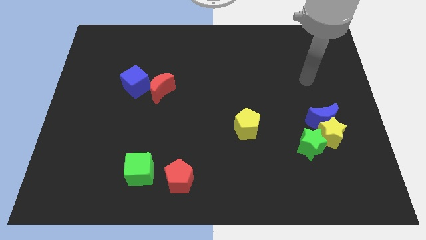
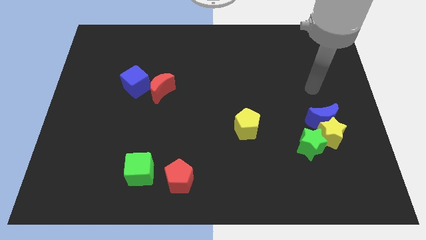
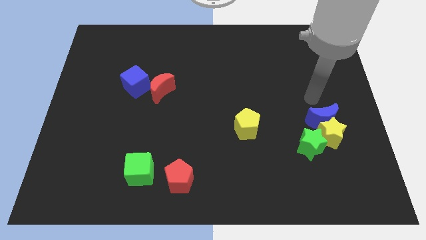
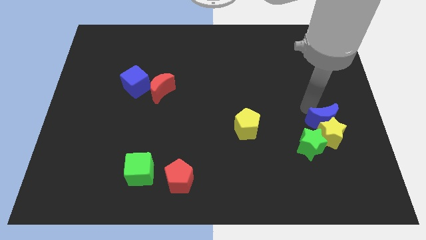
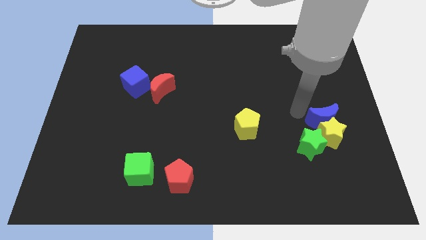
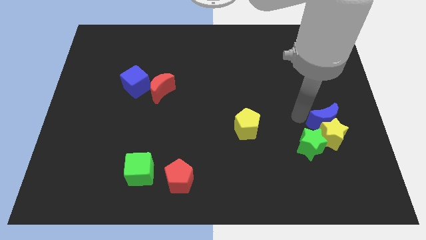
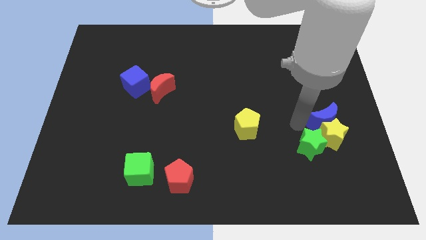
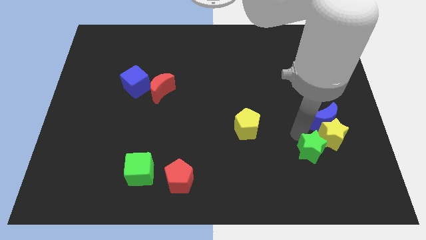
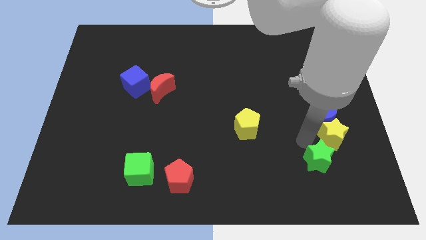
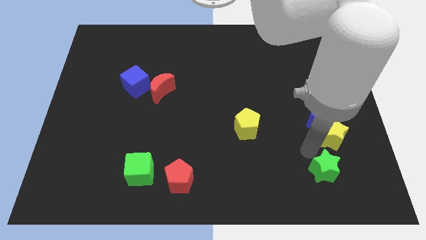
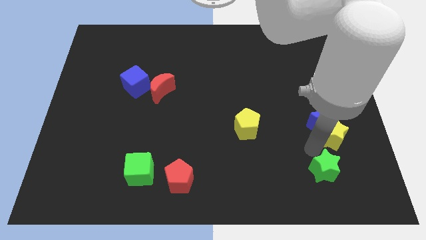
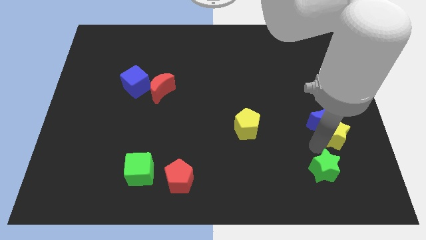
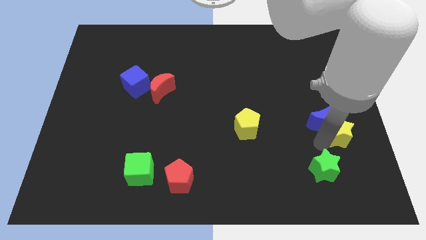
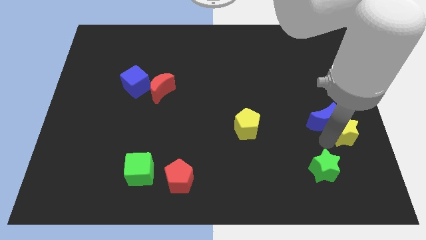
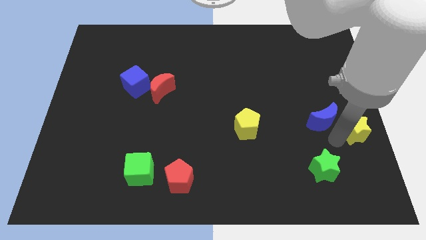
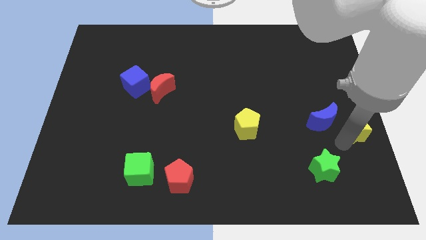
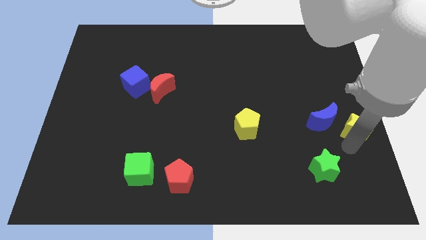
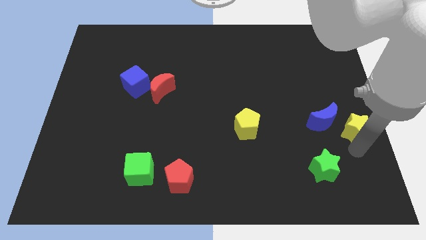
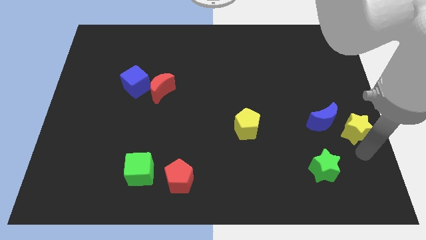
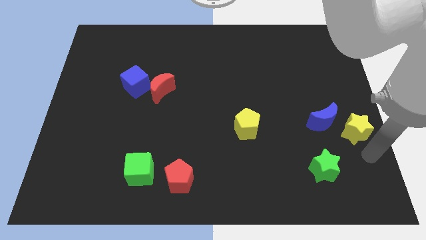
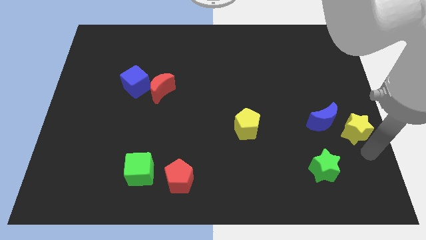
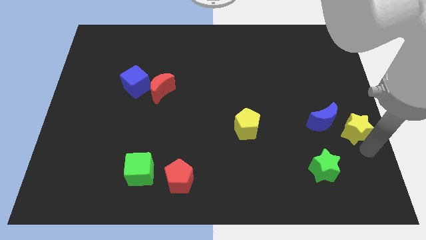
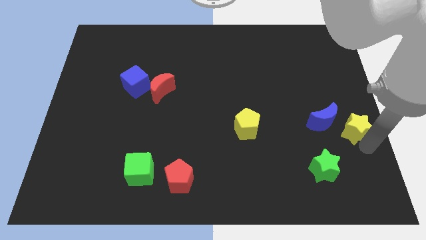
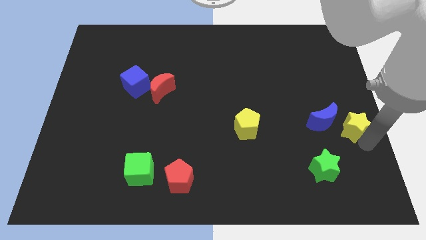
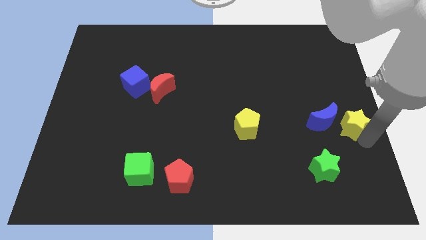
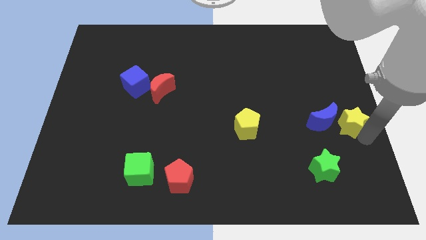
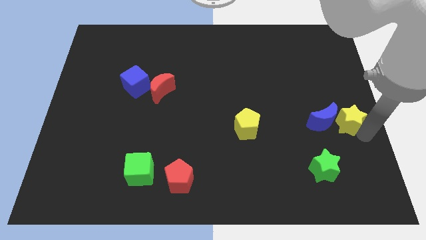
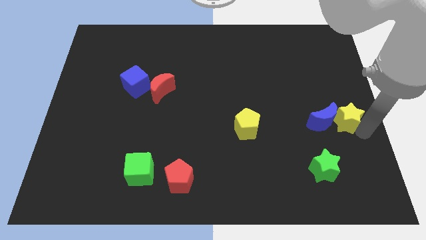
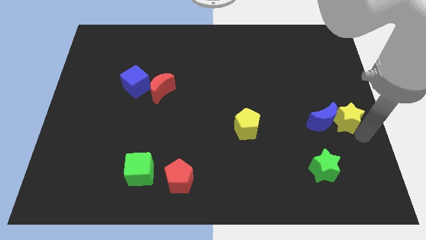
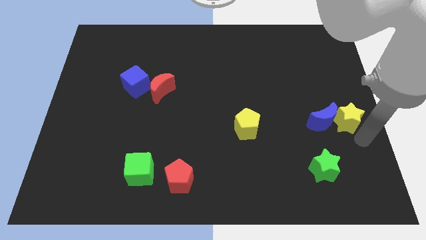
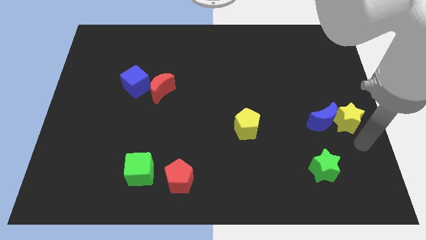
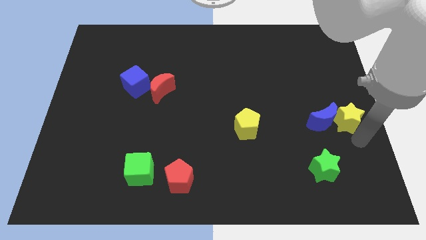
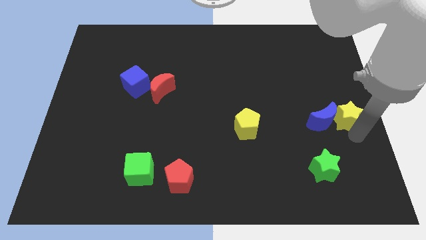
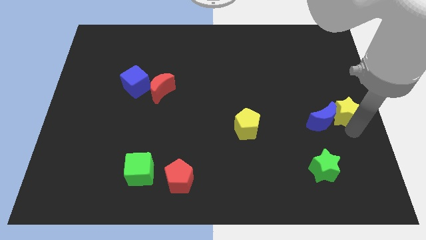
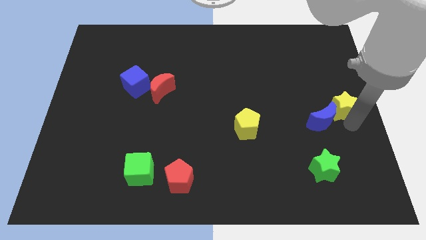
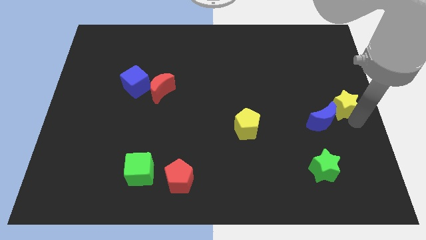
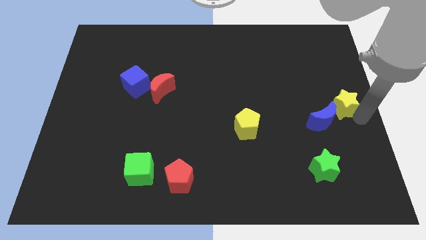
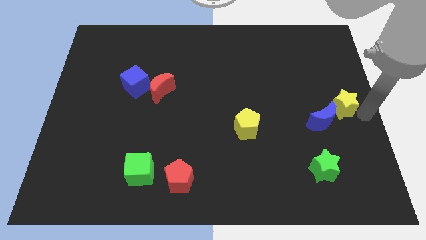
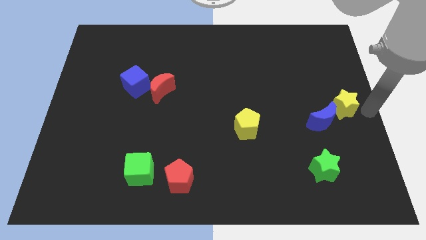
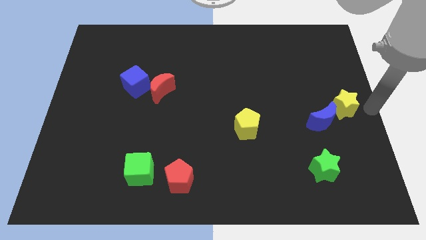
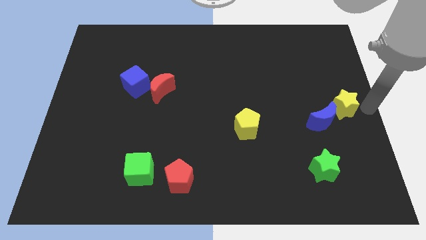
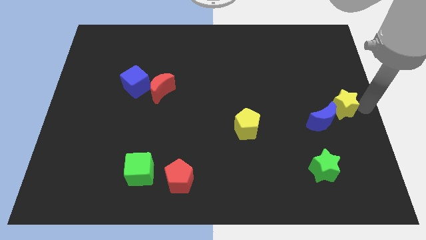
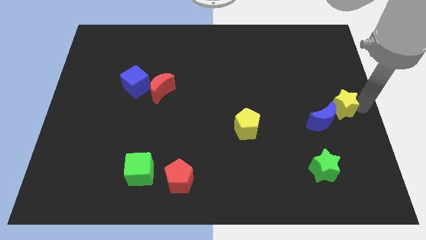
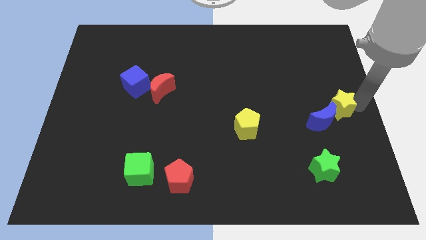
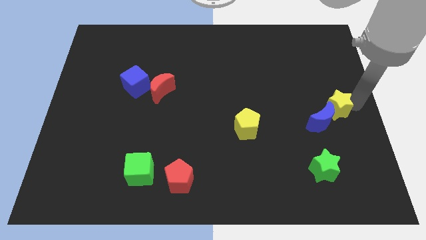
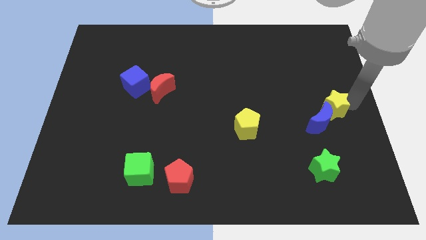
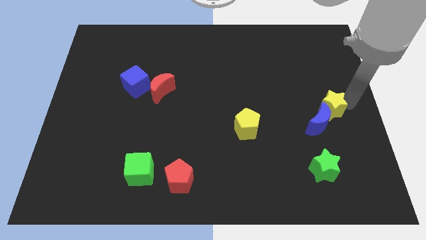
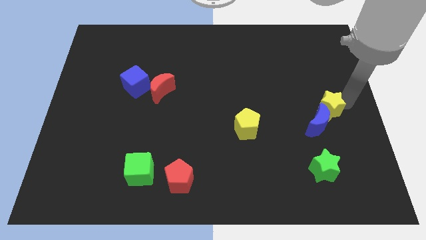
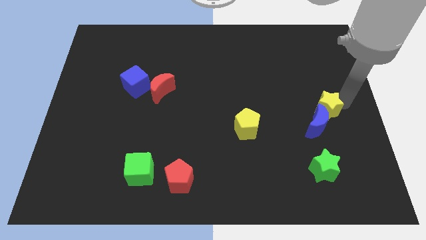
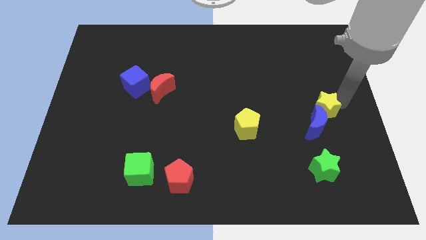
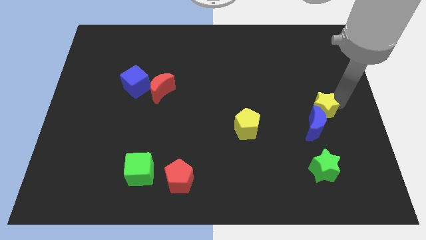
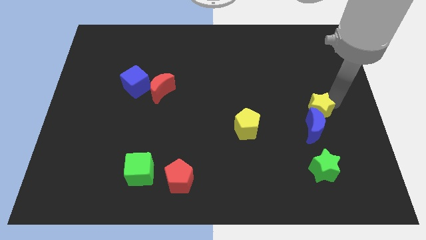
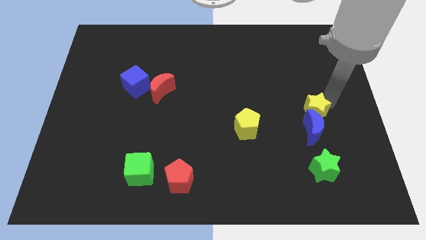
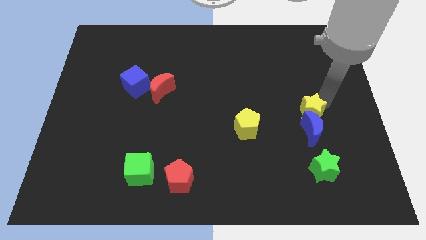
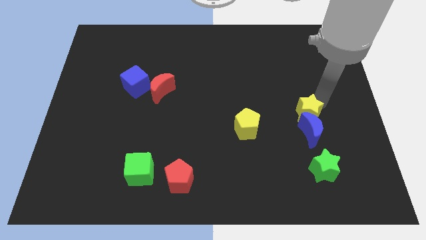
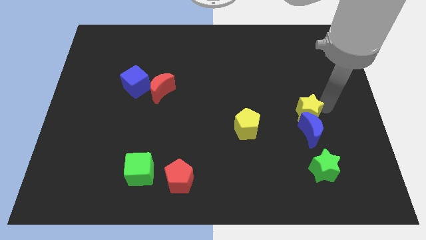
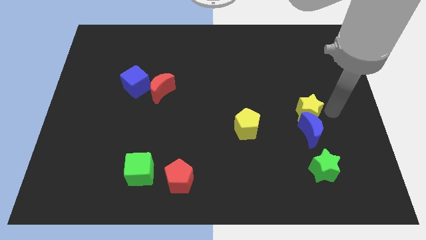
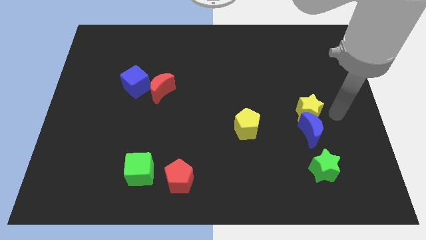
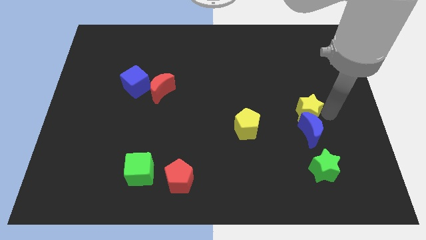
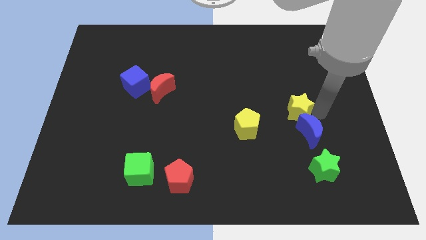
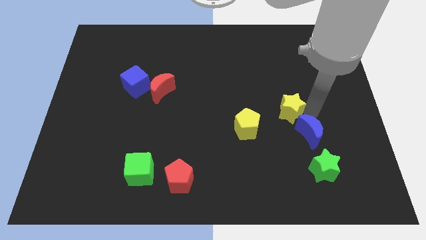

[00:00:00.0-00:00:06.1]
put the yellow star to the top right side of the yellow pentagon

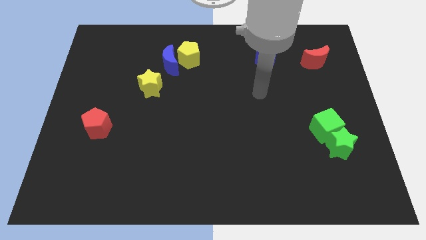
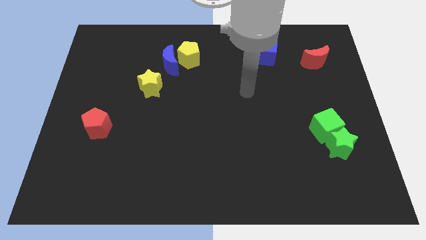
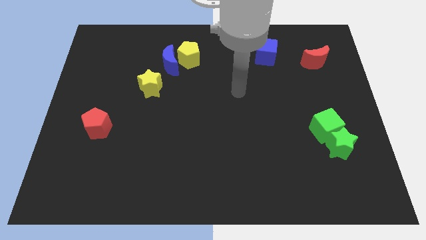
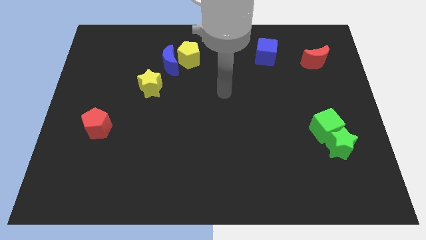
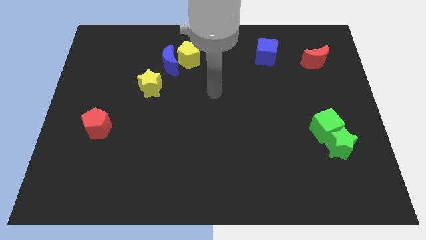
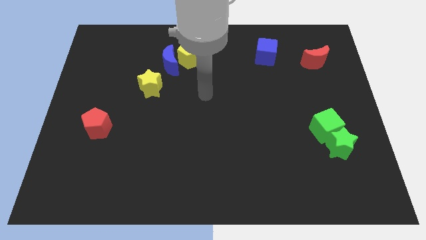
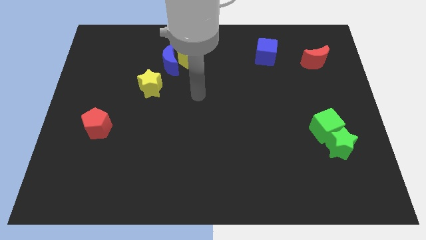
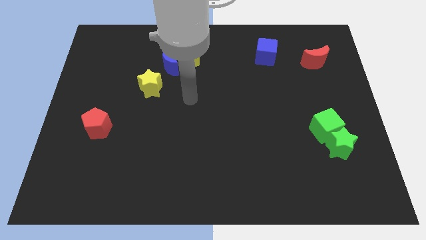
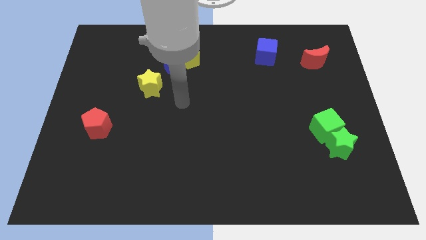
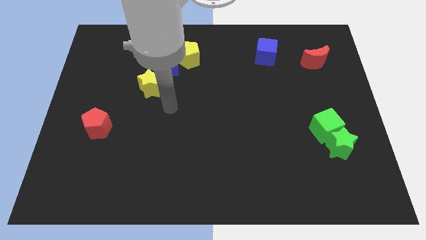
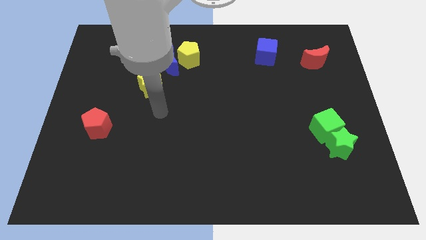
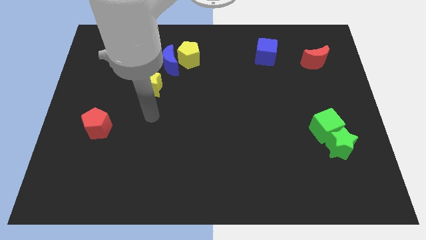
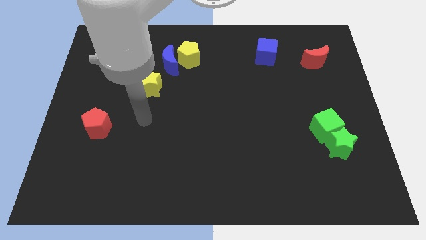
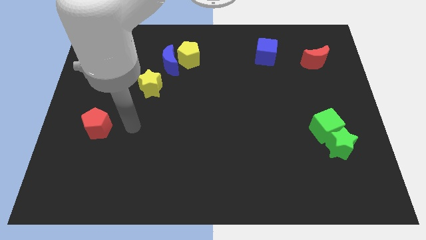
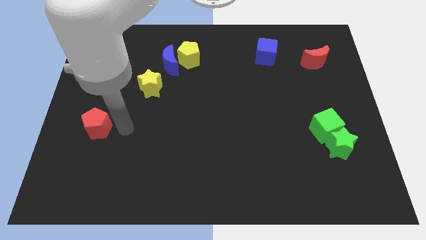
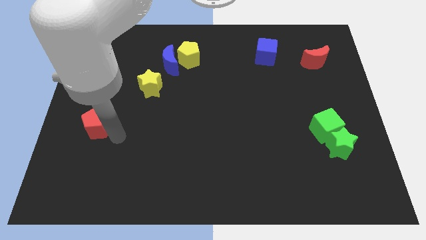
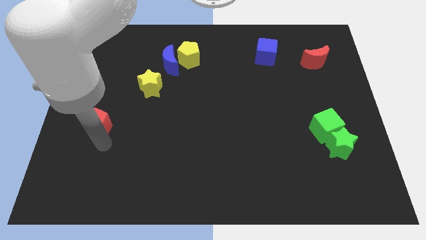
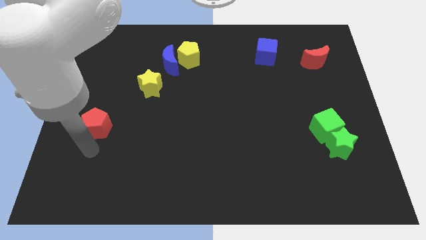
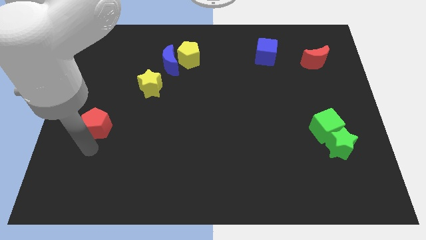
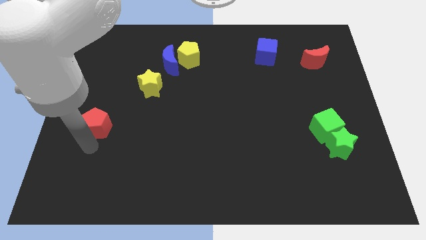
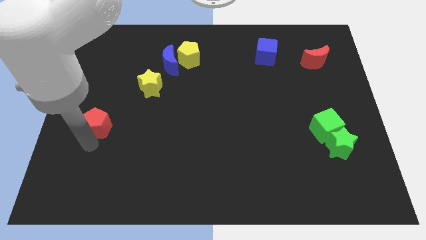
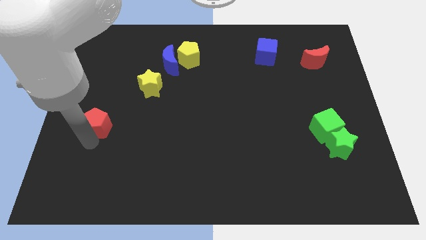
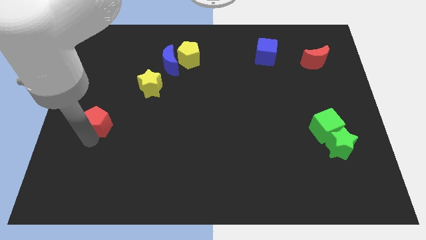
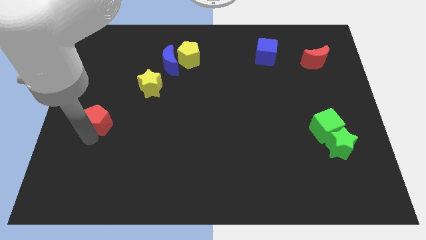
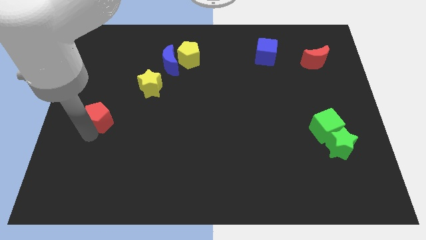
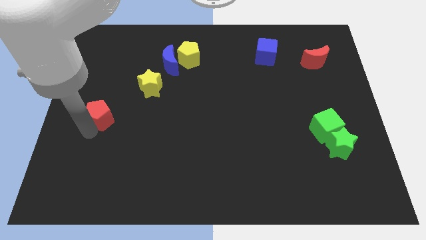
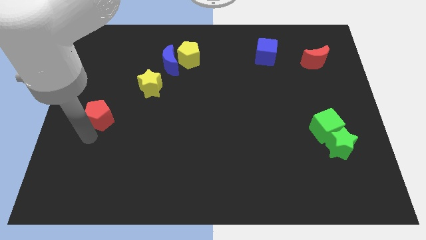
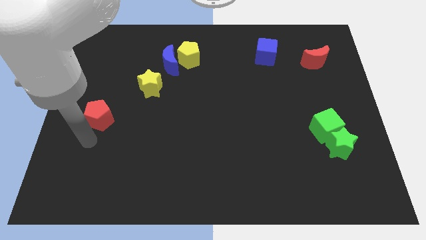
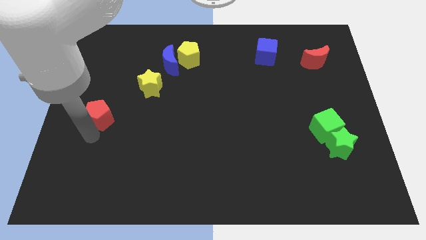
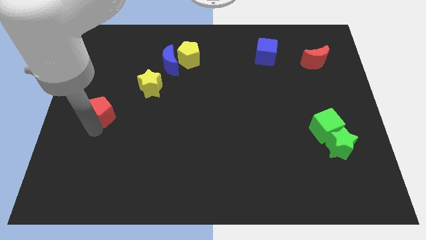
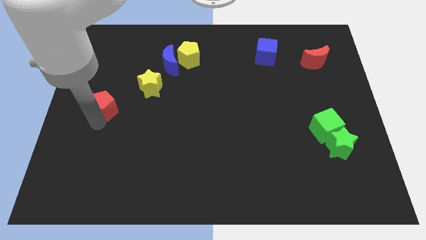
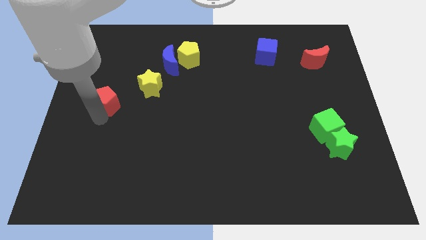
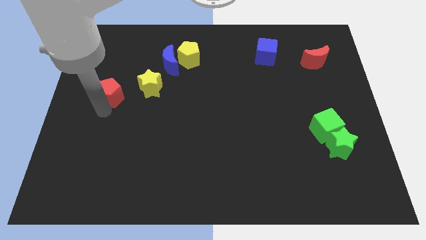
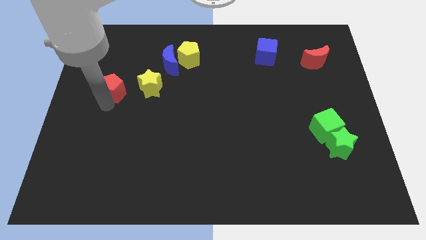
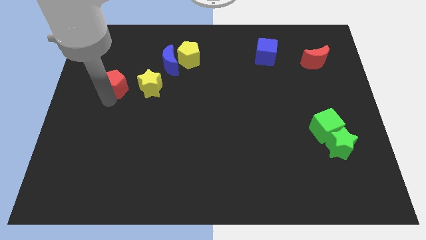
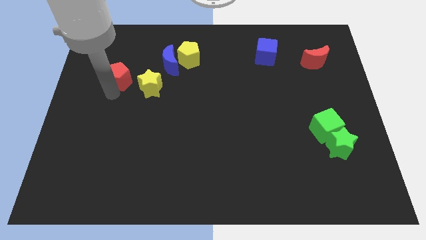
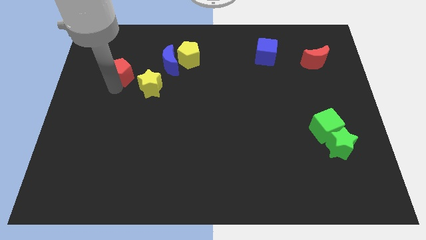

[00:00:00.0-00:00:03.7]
slide the red pentagon left of the blue moon
